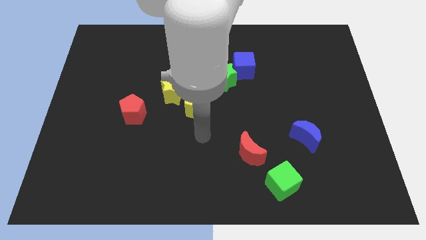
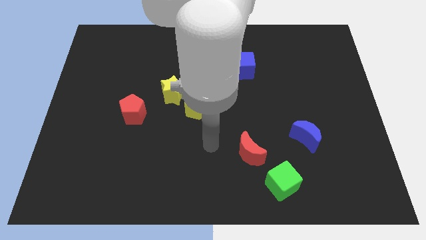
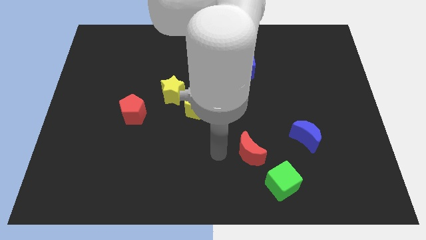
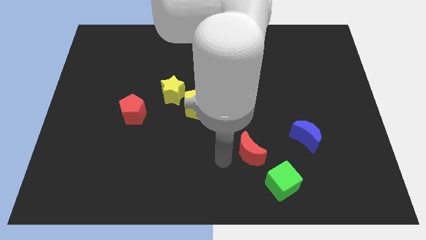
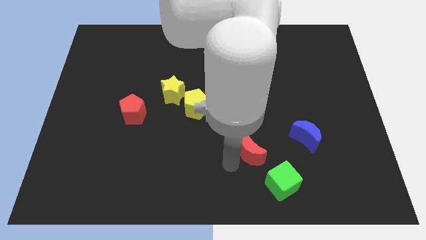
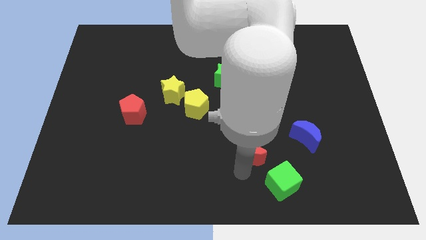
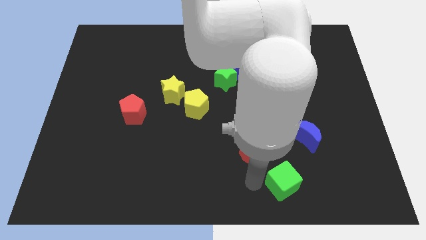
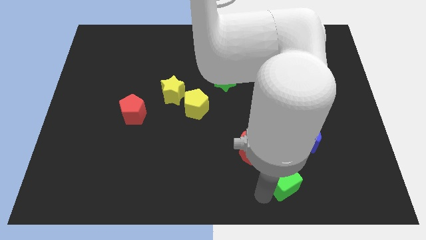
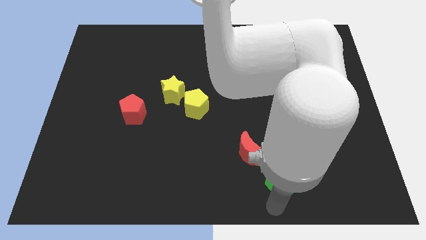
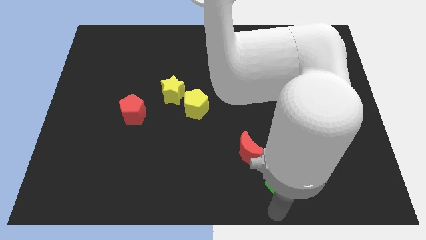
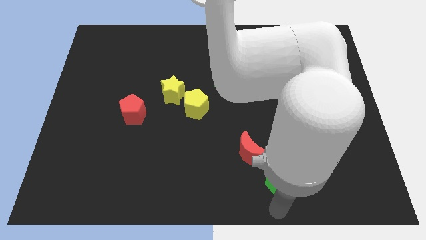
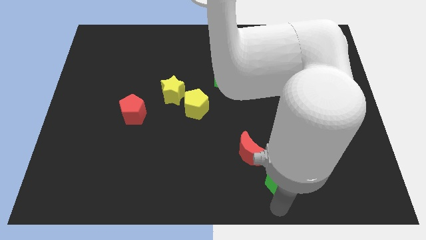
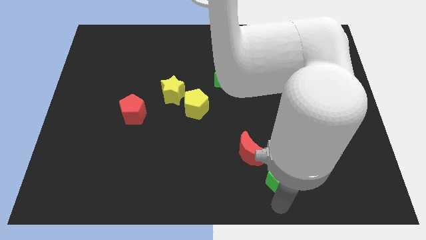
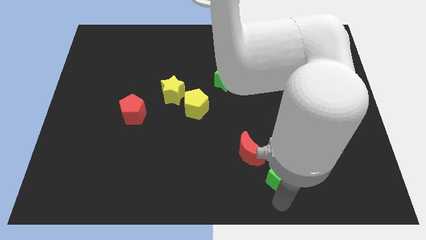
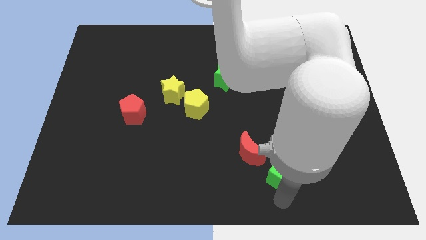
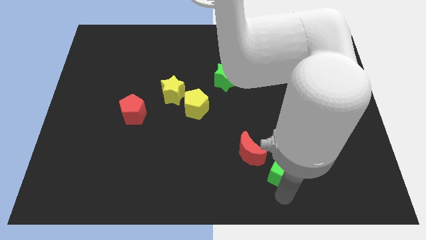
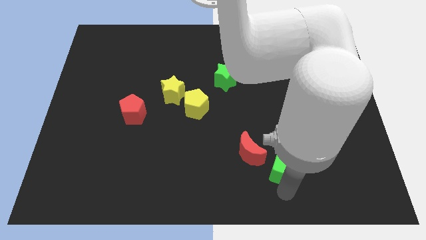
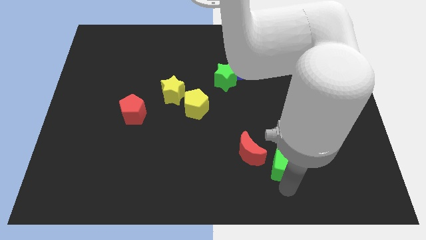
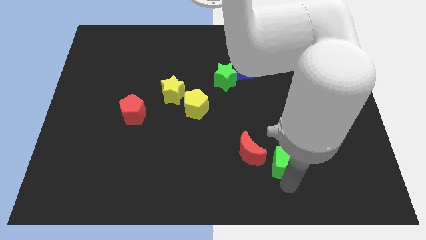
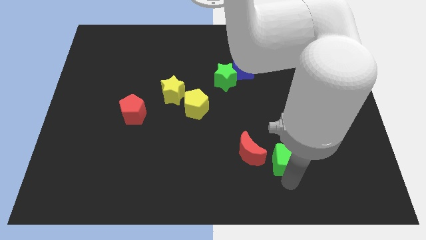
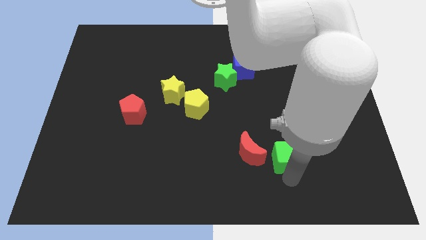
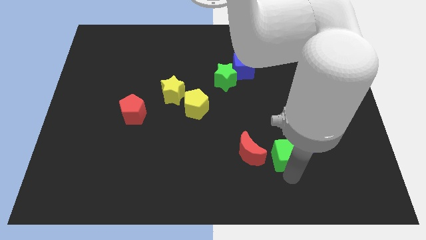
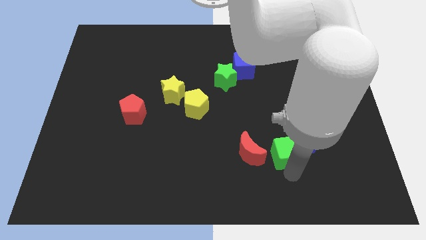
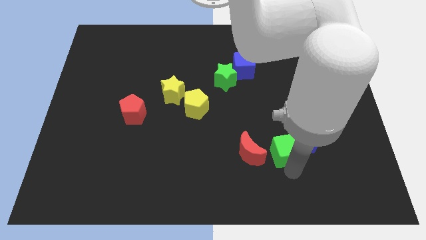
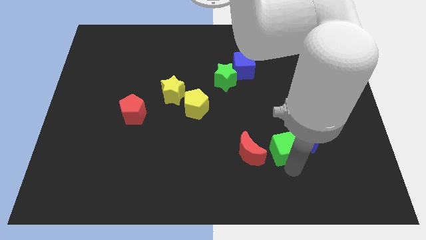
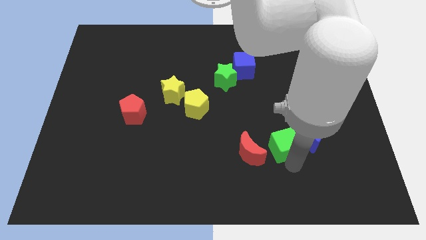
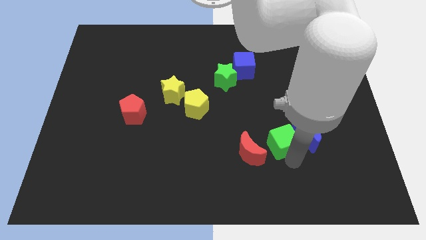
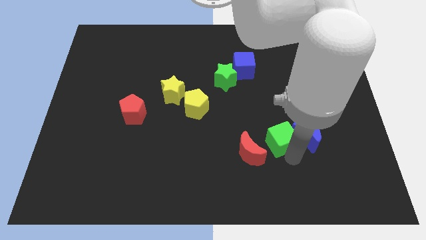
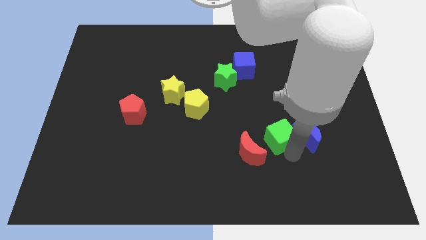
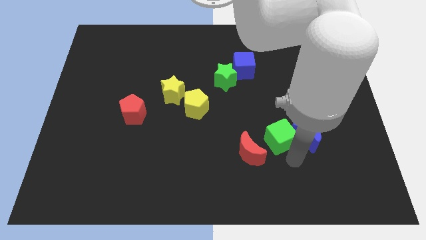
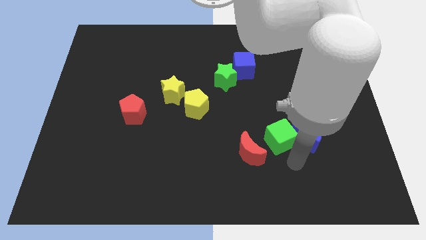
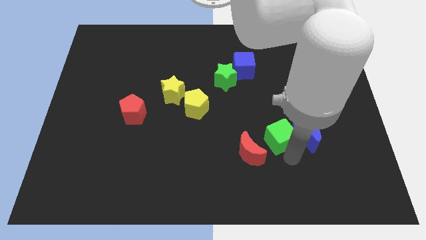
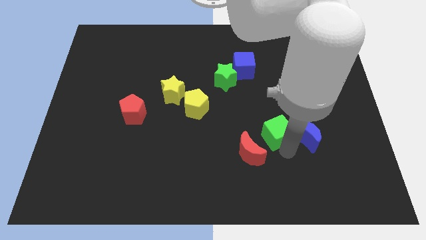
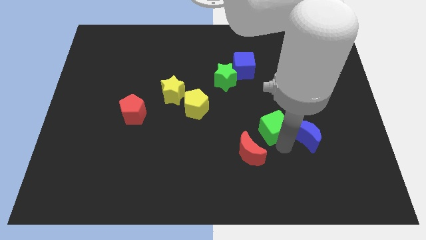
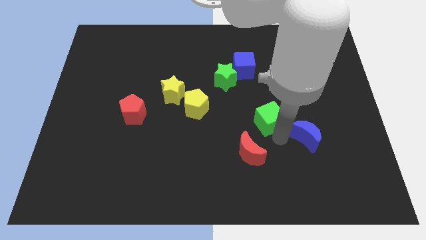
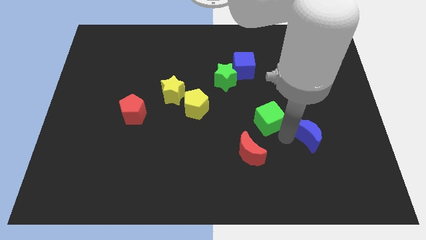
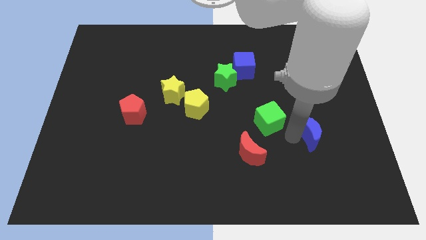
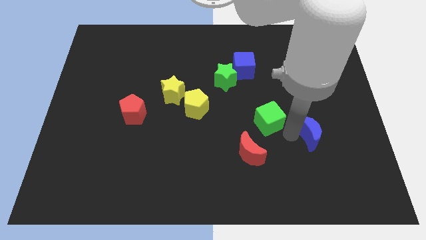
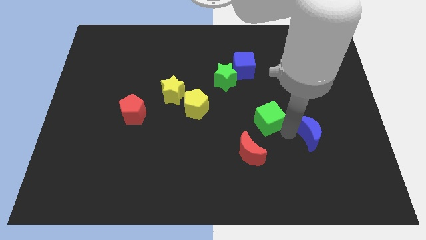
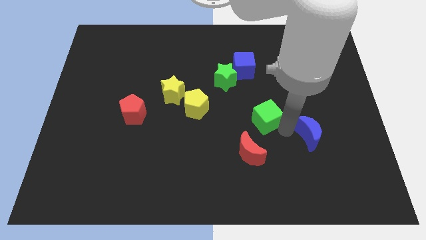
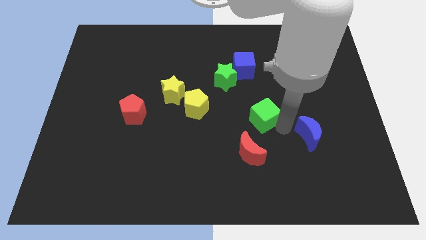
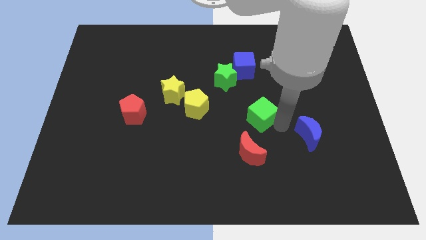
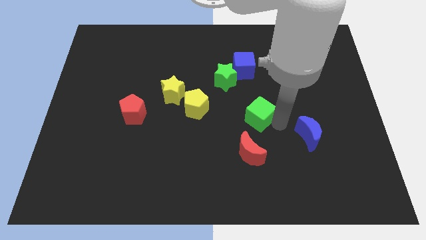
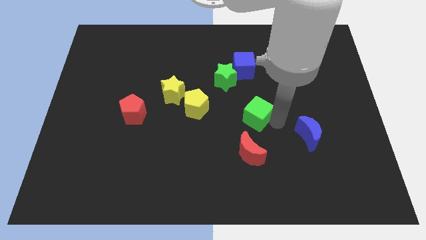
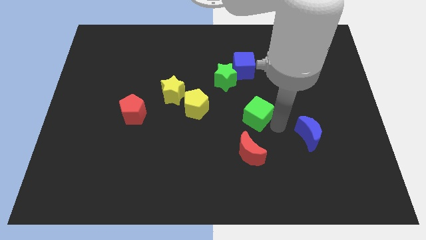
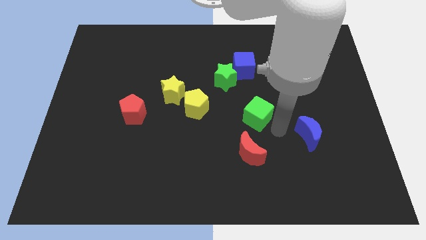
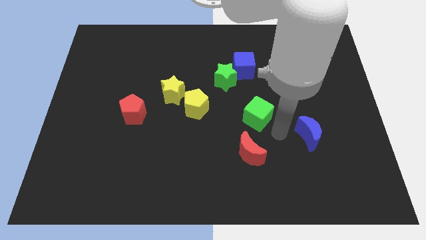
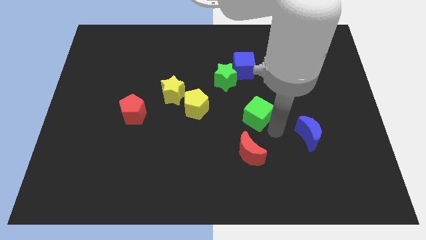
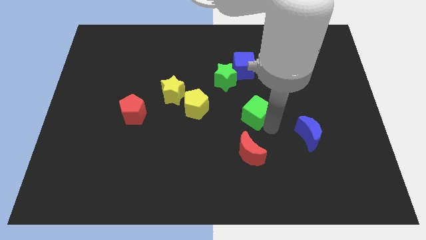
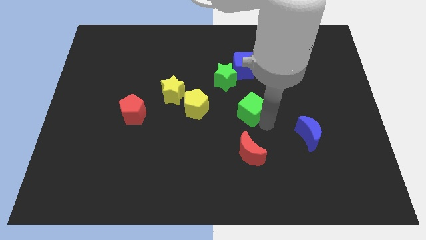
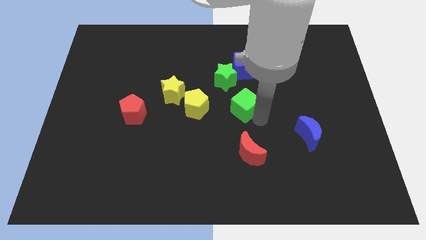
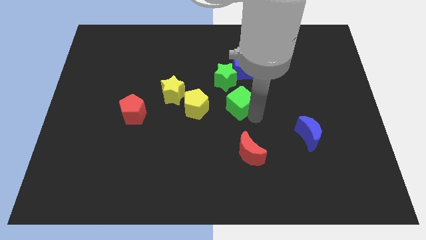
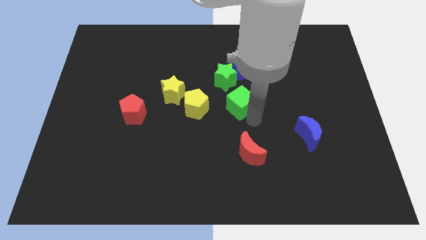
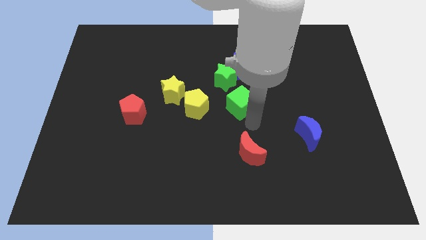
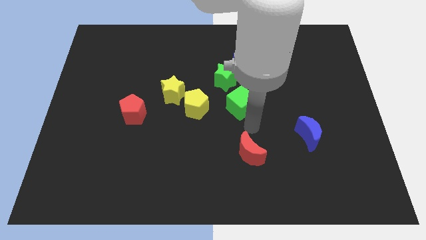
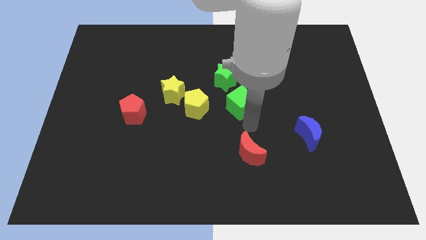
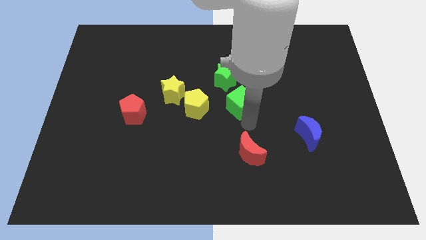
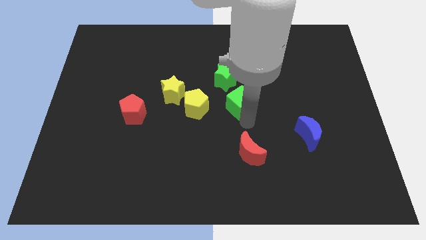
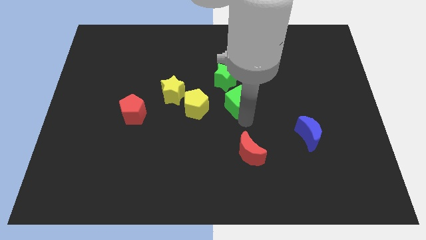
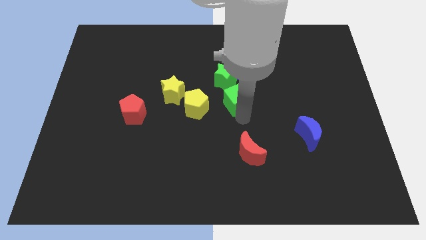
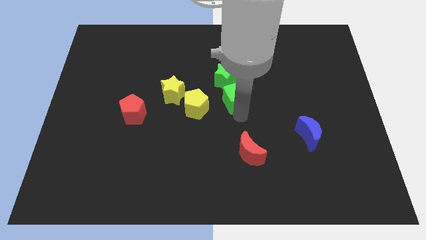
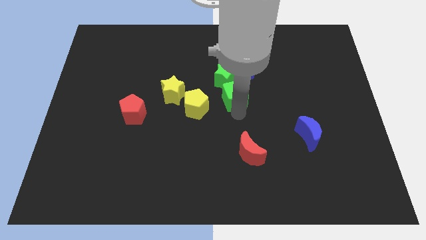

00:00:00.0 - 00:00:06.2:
put the green cube close to the green star

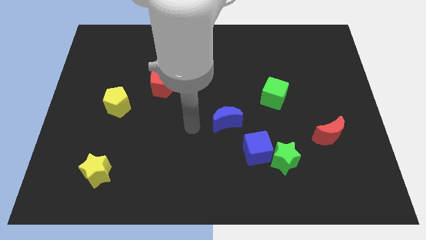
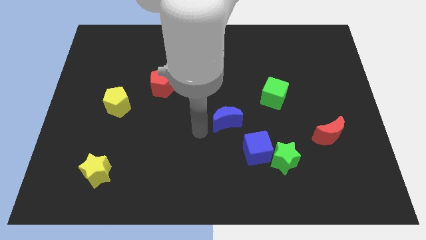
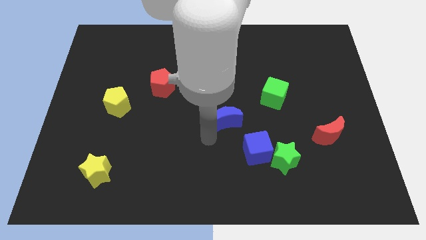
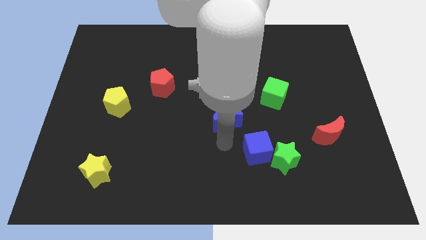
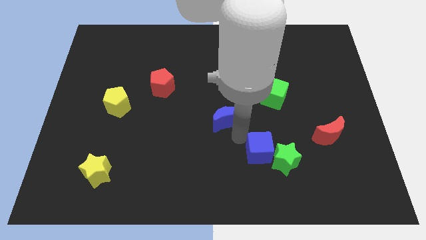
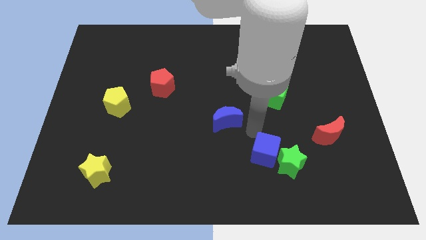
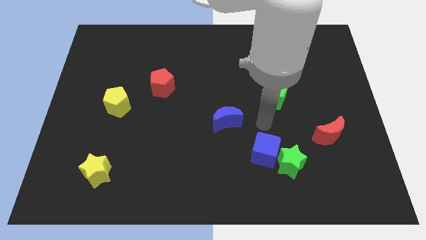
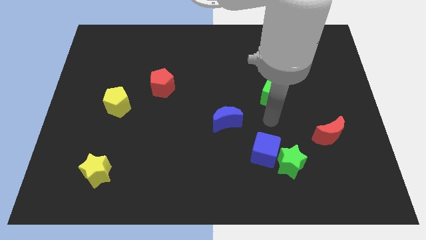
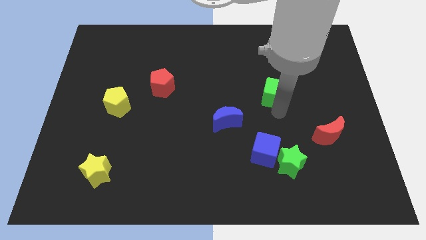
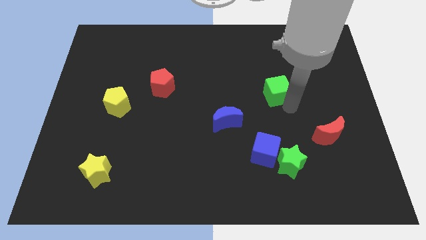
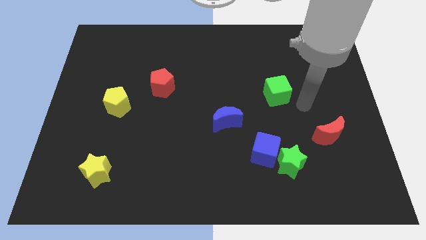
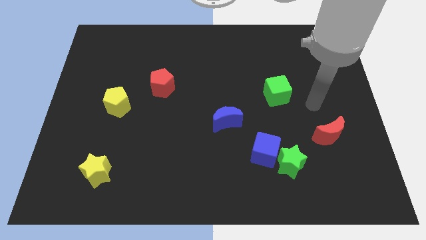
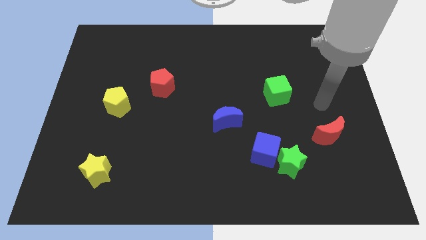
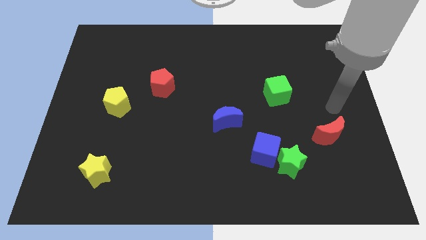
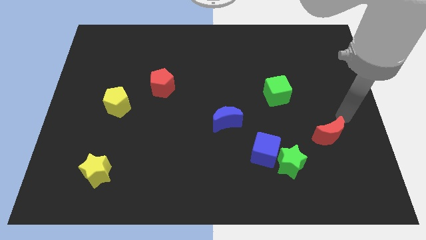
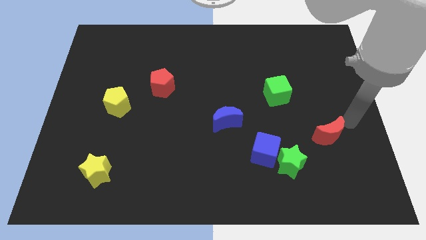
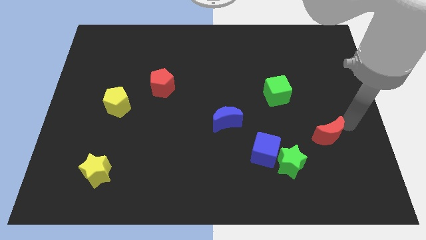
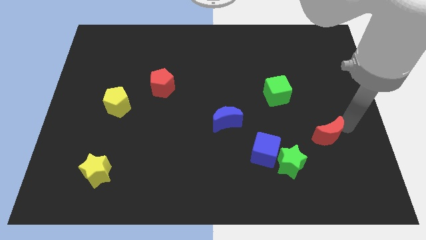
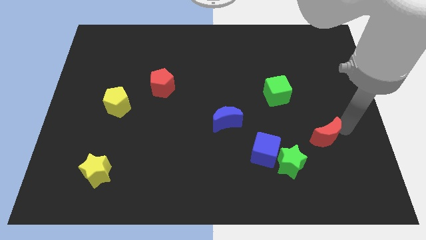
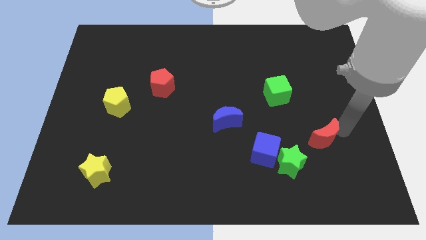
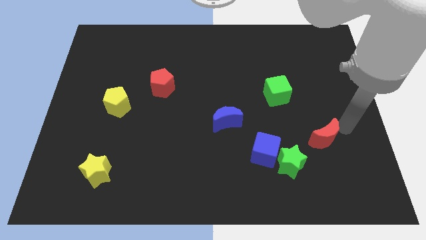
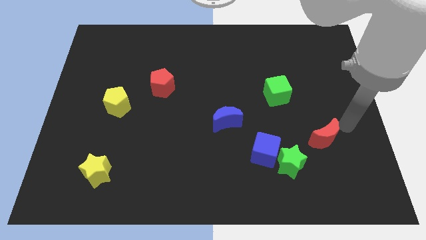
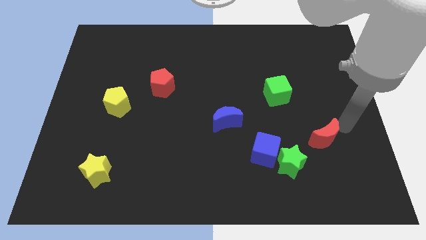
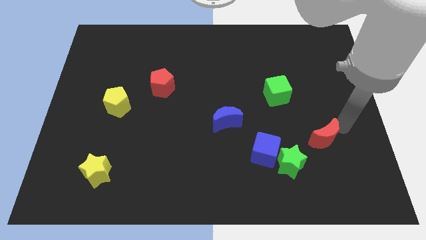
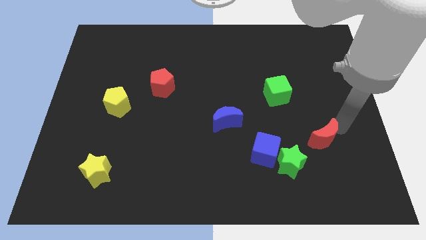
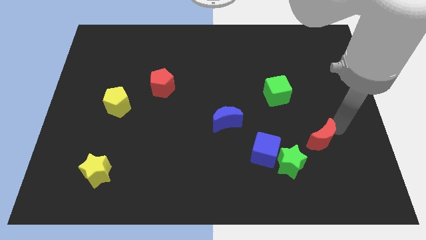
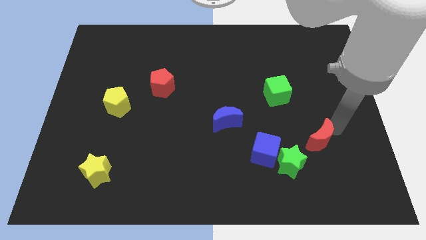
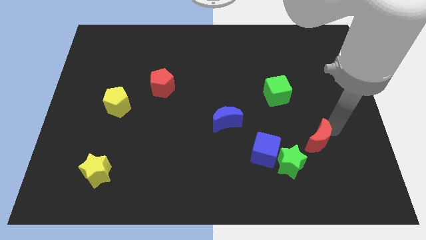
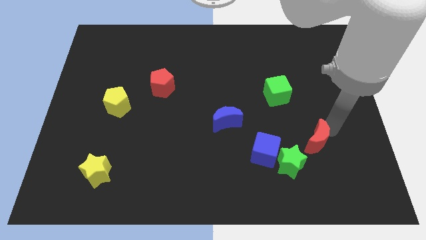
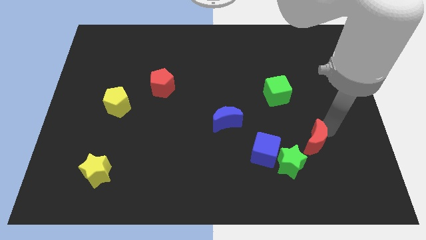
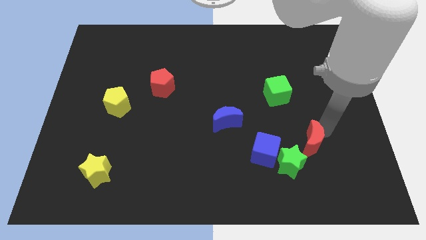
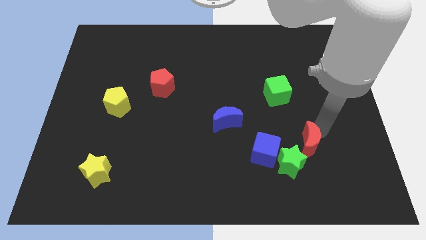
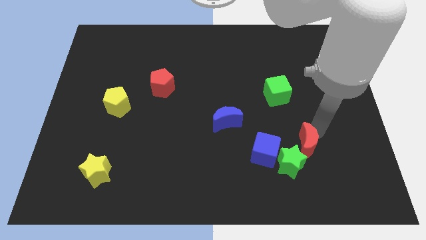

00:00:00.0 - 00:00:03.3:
move the red moon next to the green star
